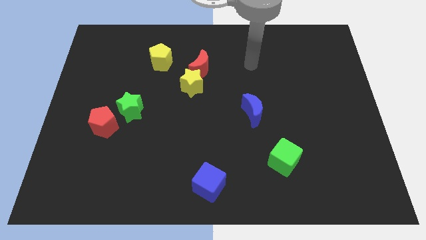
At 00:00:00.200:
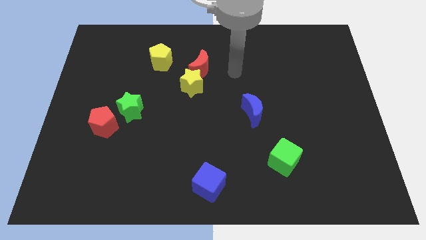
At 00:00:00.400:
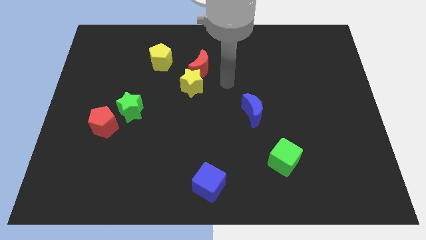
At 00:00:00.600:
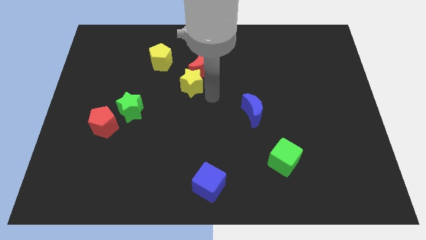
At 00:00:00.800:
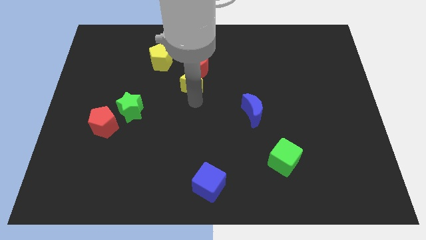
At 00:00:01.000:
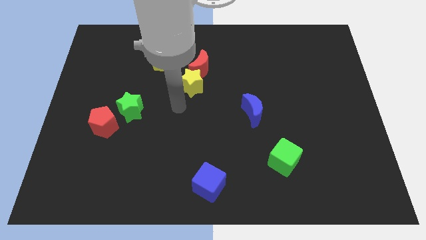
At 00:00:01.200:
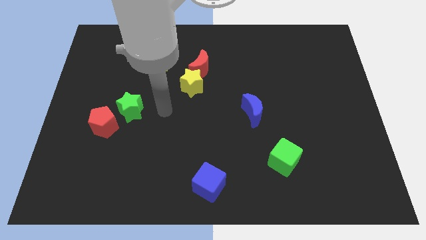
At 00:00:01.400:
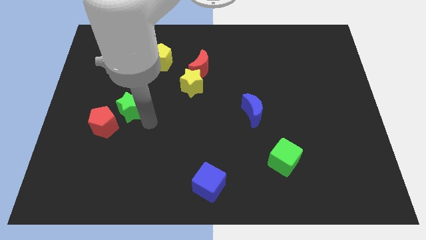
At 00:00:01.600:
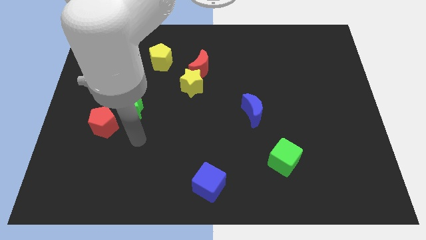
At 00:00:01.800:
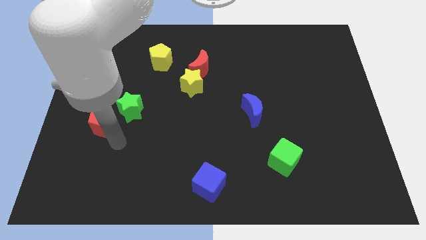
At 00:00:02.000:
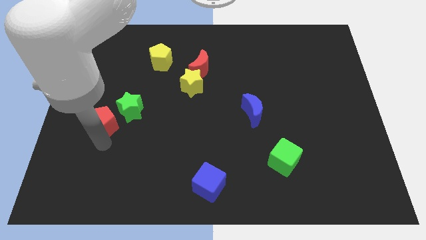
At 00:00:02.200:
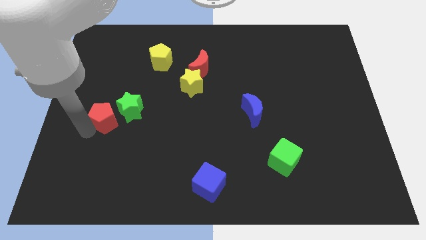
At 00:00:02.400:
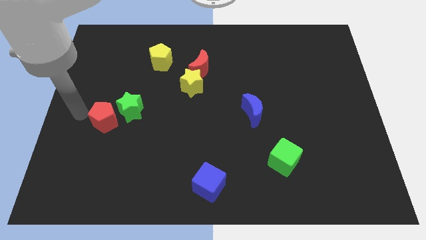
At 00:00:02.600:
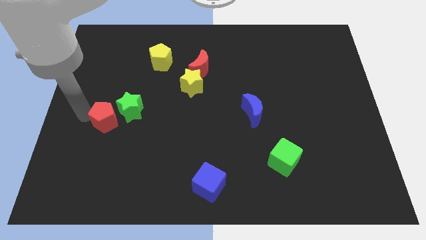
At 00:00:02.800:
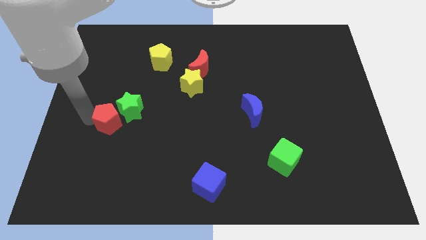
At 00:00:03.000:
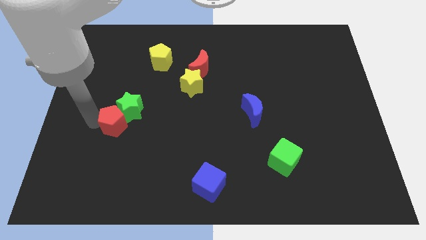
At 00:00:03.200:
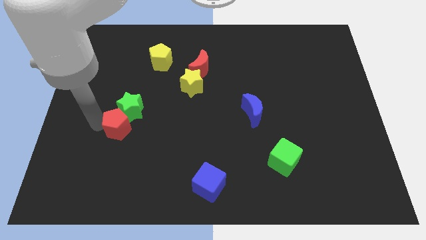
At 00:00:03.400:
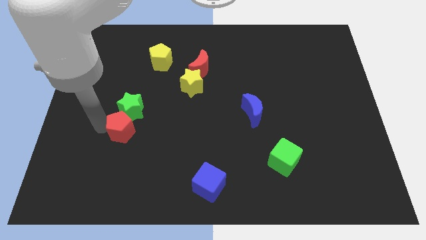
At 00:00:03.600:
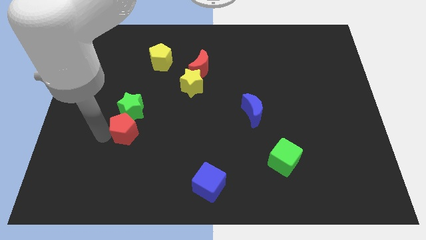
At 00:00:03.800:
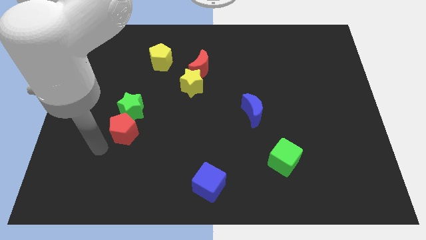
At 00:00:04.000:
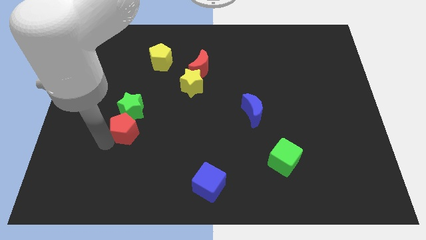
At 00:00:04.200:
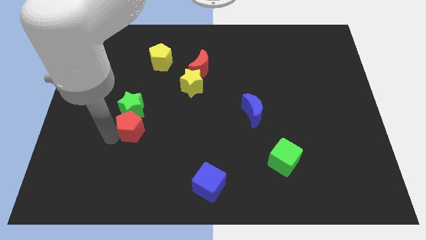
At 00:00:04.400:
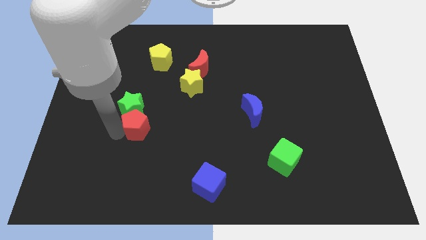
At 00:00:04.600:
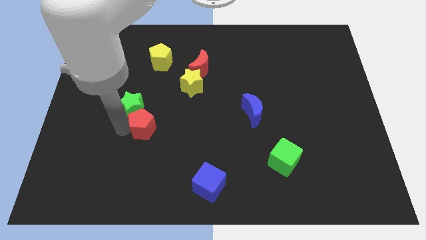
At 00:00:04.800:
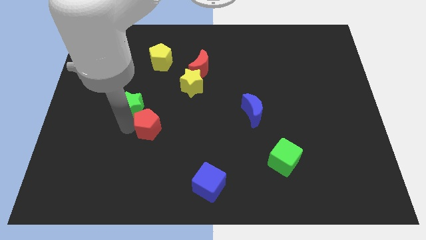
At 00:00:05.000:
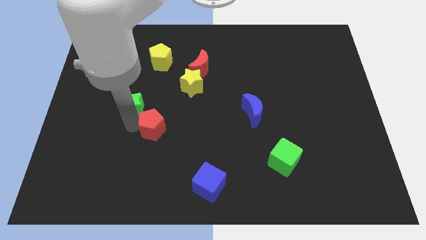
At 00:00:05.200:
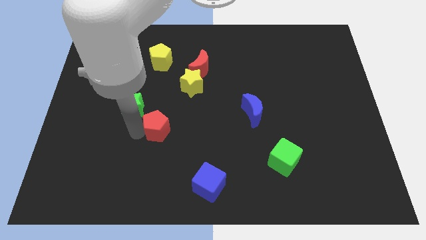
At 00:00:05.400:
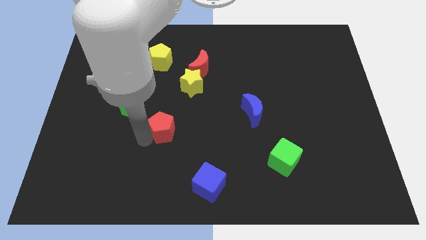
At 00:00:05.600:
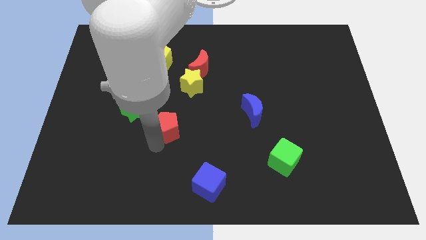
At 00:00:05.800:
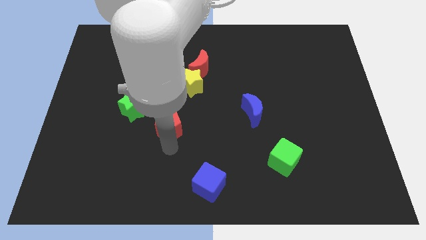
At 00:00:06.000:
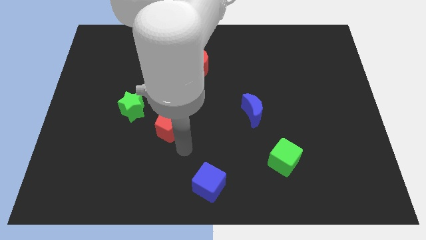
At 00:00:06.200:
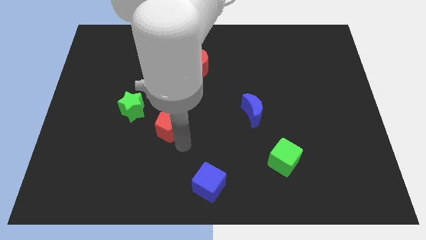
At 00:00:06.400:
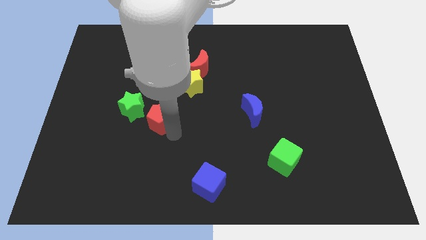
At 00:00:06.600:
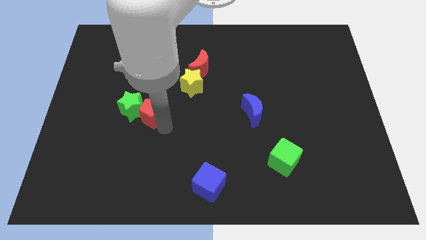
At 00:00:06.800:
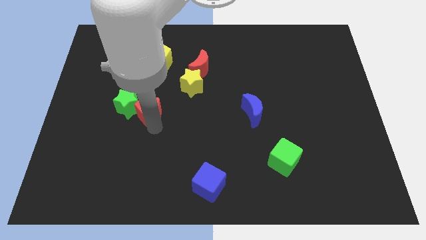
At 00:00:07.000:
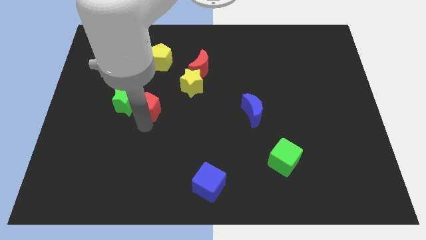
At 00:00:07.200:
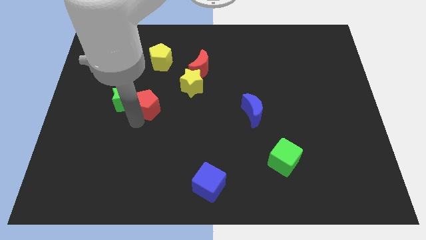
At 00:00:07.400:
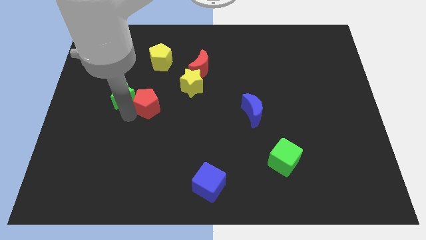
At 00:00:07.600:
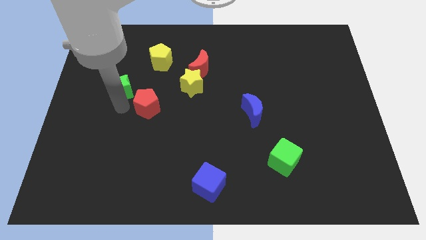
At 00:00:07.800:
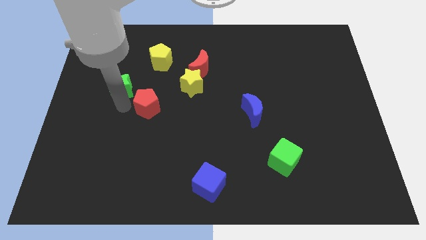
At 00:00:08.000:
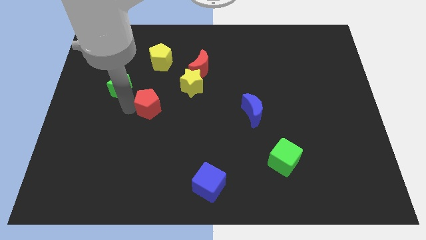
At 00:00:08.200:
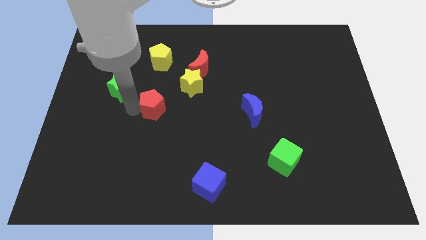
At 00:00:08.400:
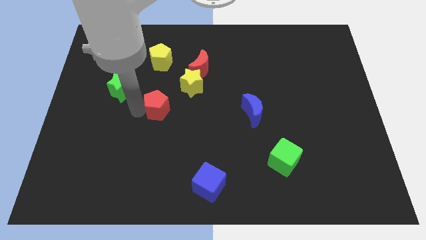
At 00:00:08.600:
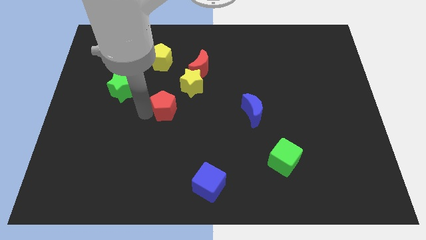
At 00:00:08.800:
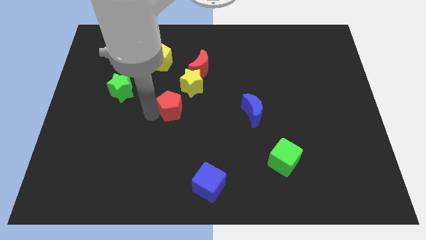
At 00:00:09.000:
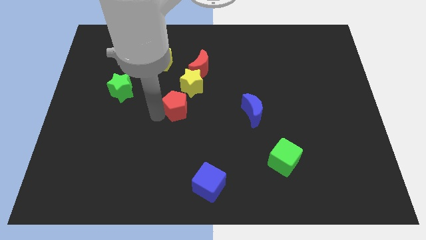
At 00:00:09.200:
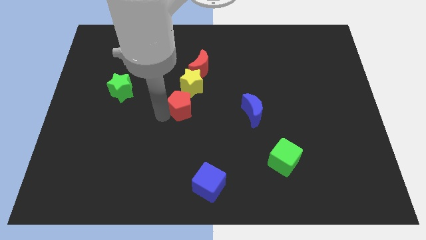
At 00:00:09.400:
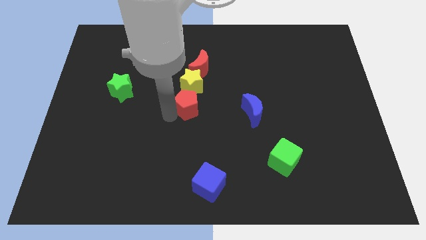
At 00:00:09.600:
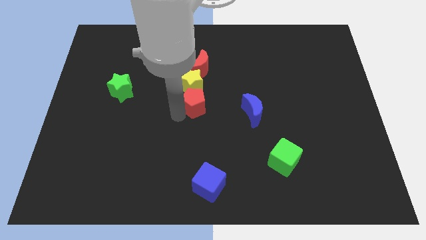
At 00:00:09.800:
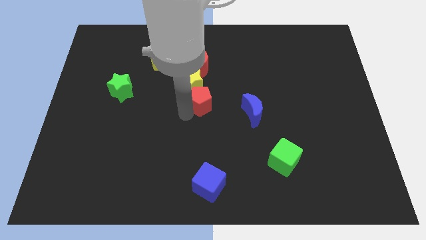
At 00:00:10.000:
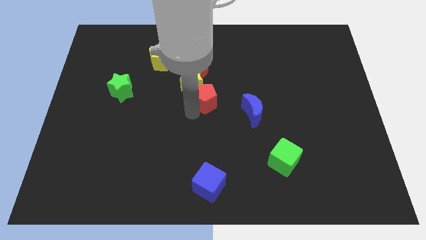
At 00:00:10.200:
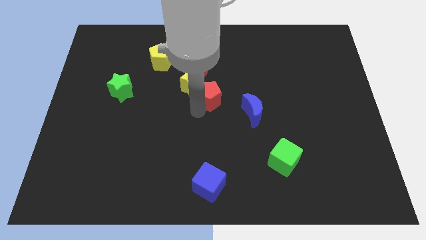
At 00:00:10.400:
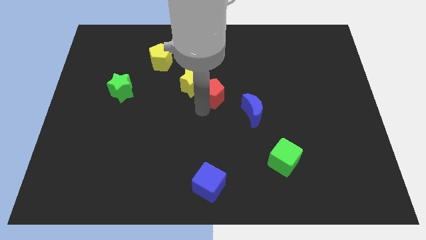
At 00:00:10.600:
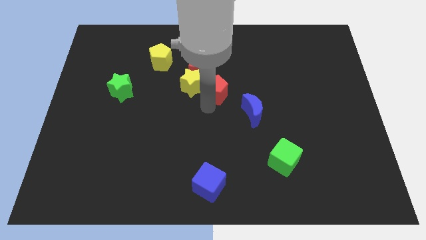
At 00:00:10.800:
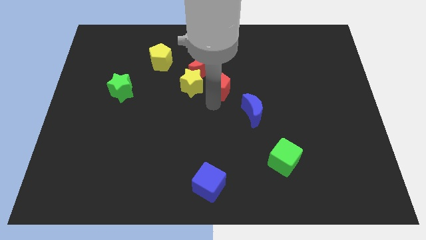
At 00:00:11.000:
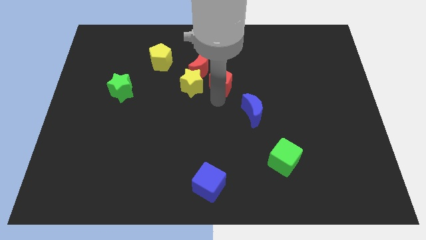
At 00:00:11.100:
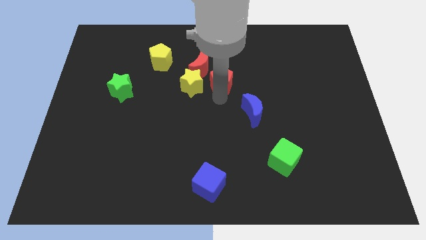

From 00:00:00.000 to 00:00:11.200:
move the red pentagon to the top right side of the yellow star

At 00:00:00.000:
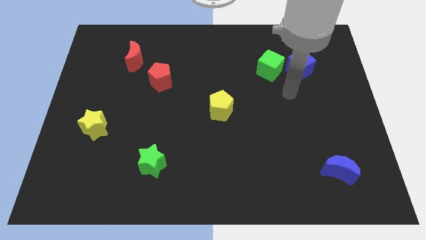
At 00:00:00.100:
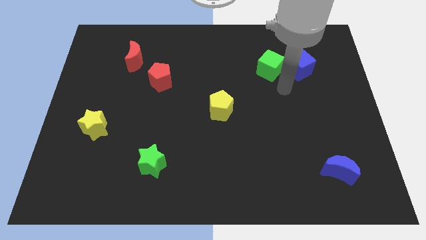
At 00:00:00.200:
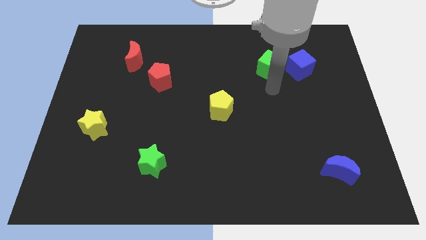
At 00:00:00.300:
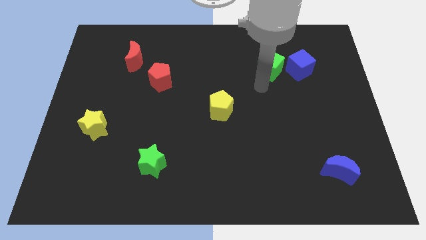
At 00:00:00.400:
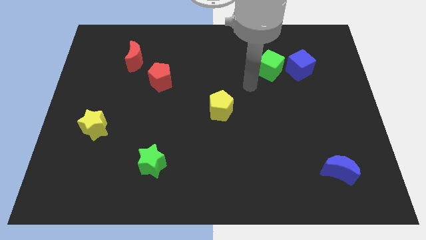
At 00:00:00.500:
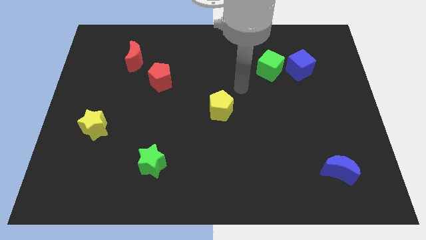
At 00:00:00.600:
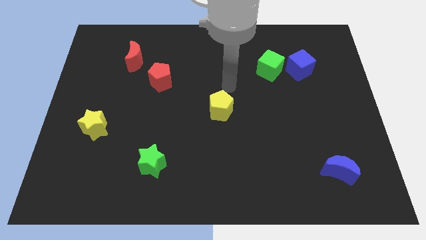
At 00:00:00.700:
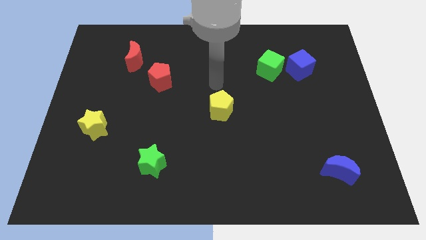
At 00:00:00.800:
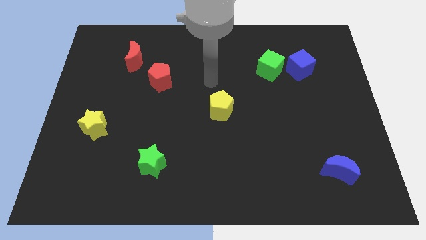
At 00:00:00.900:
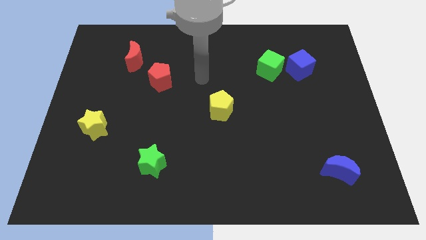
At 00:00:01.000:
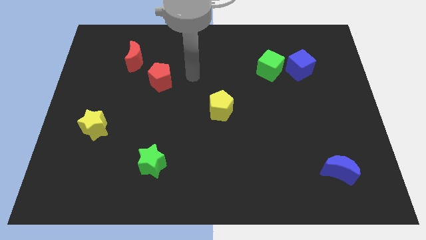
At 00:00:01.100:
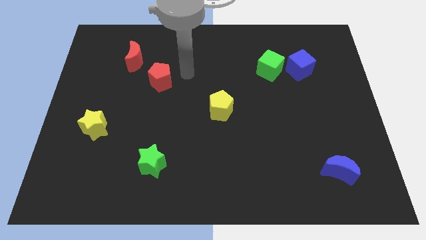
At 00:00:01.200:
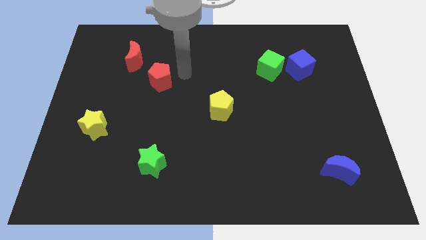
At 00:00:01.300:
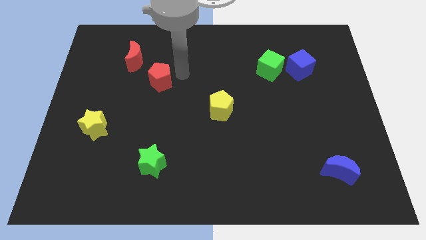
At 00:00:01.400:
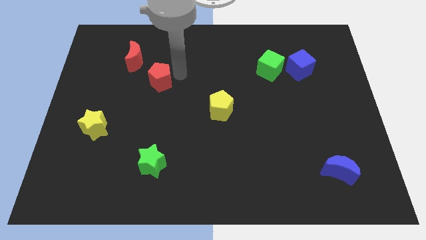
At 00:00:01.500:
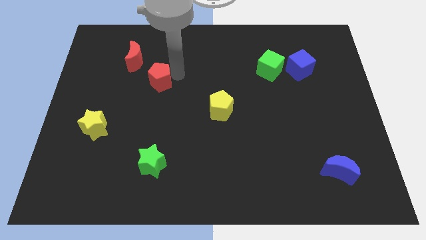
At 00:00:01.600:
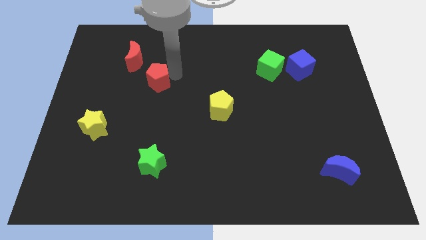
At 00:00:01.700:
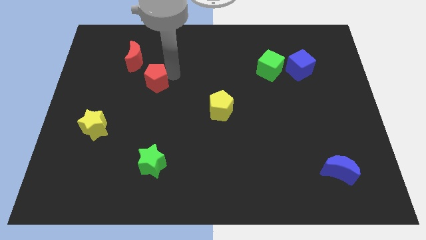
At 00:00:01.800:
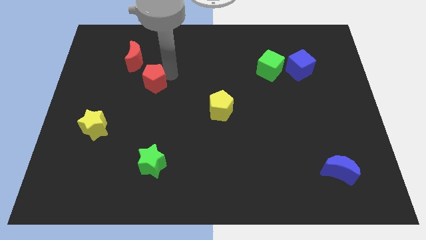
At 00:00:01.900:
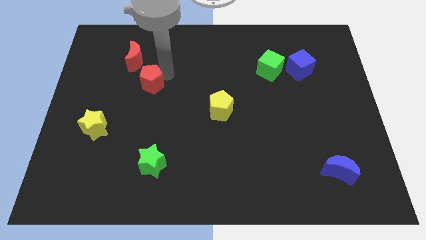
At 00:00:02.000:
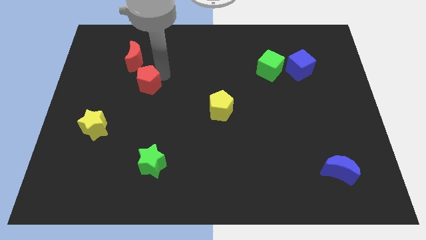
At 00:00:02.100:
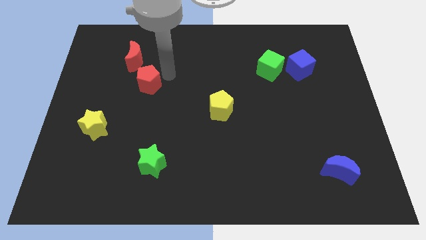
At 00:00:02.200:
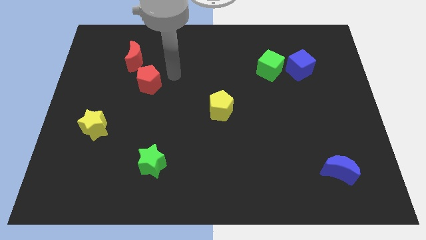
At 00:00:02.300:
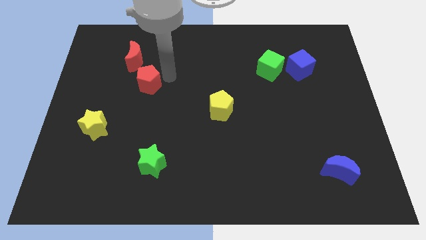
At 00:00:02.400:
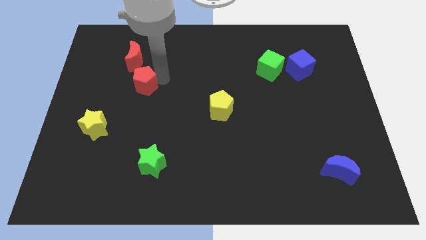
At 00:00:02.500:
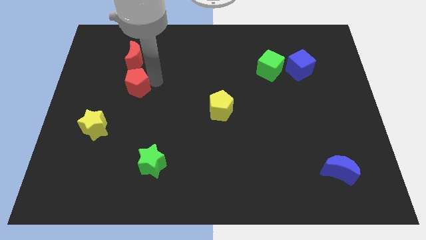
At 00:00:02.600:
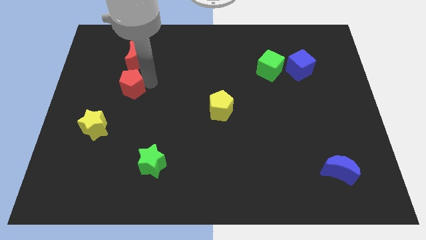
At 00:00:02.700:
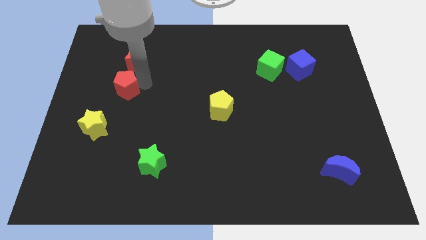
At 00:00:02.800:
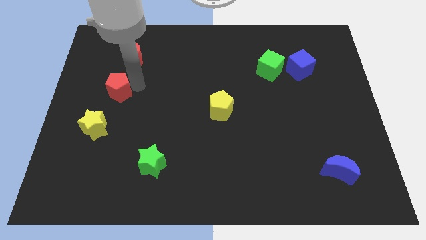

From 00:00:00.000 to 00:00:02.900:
push the red pentagon to the top side of the yellow star
